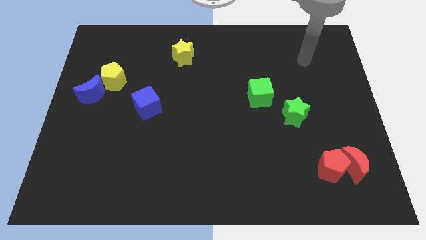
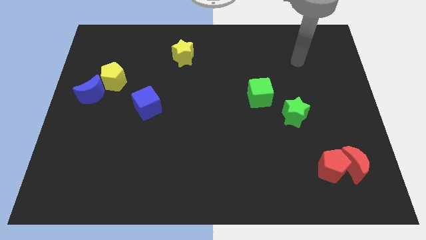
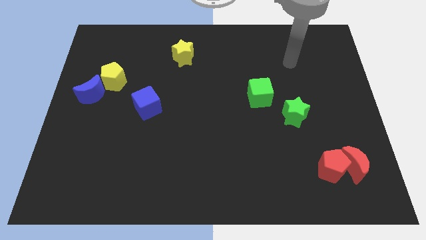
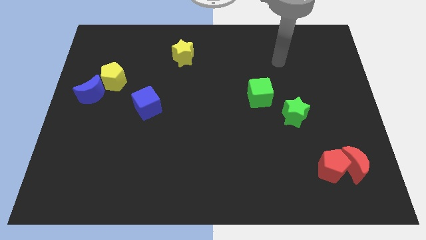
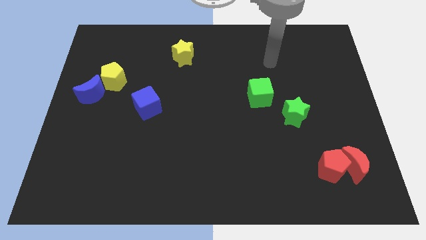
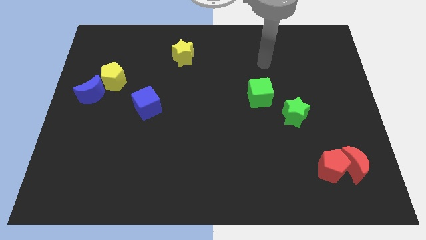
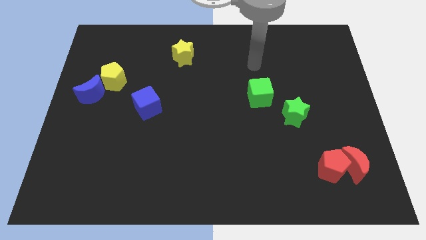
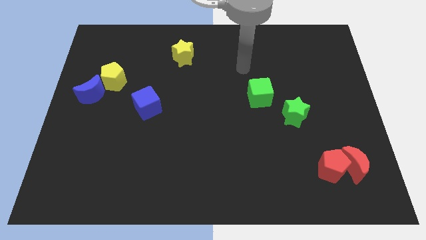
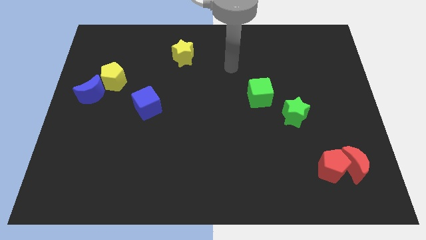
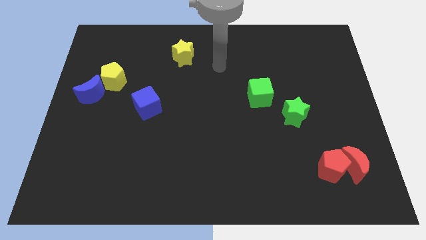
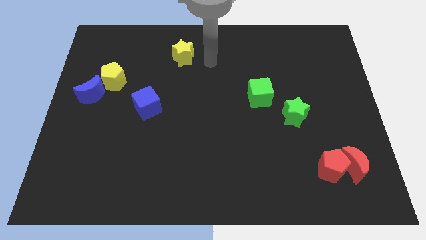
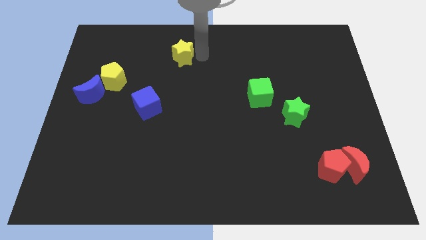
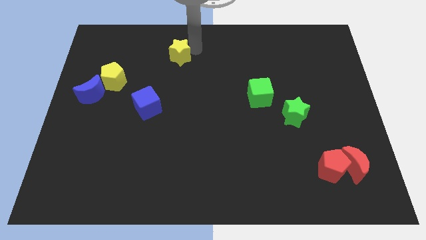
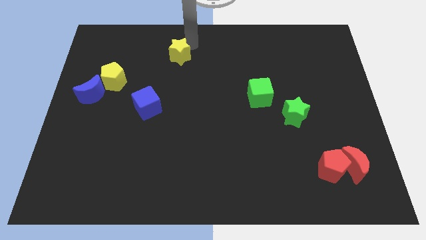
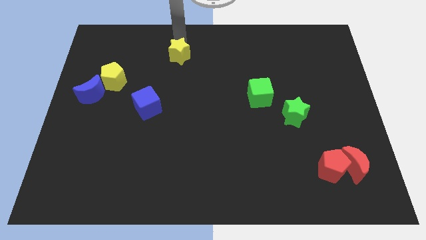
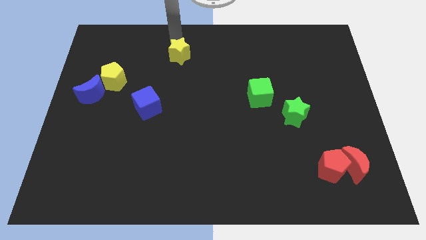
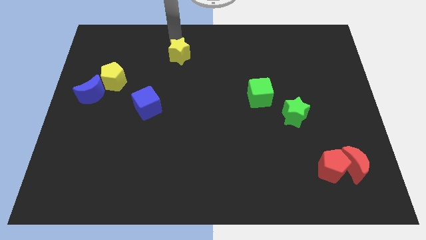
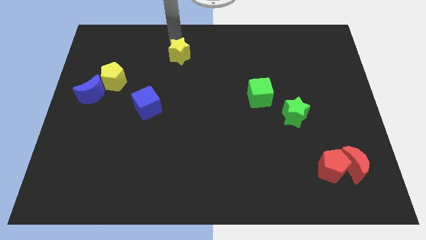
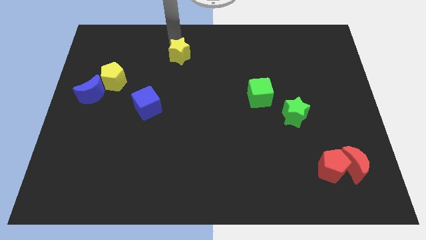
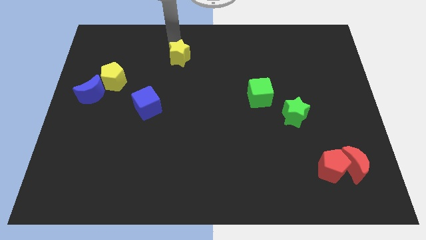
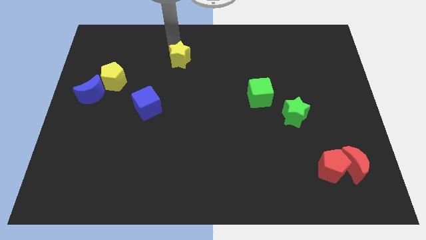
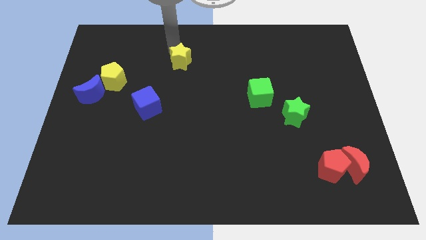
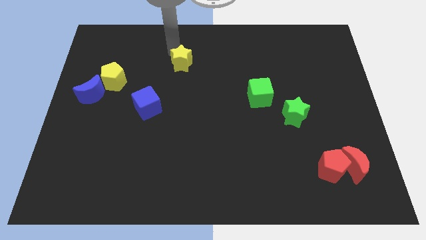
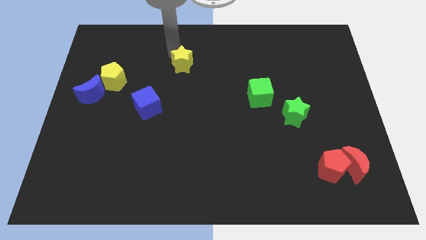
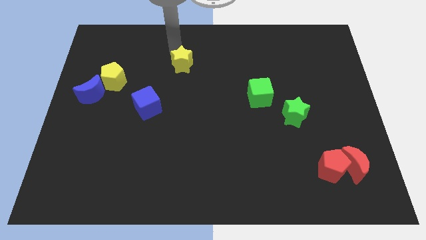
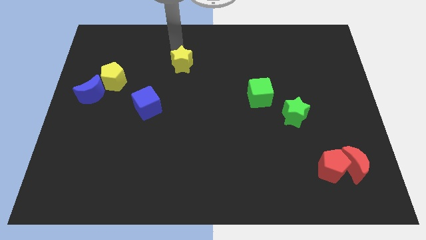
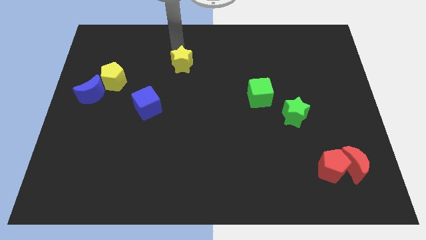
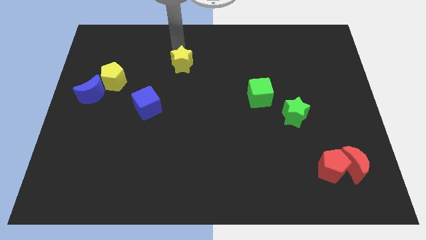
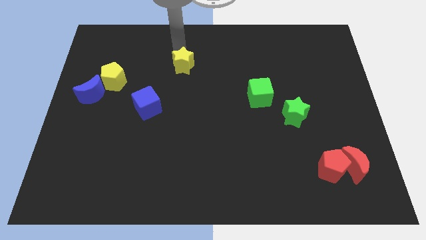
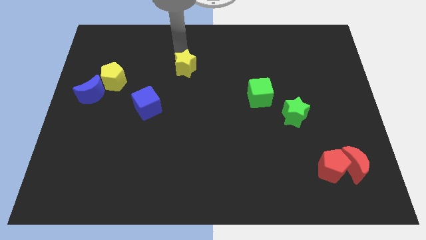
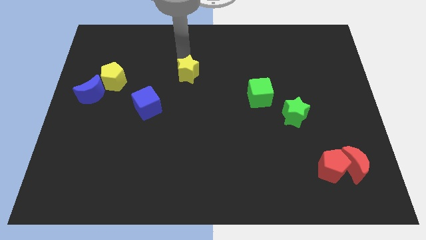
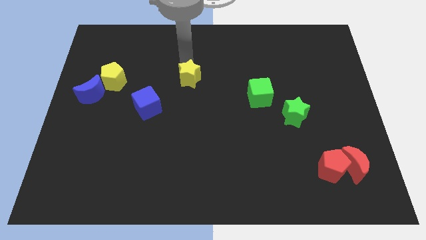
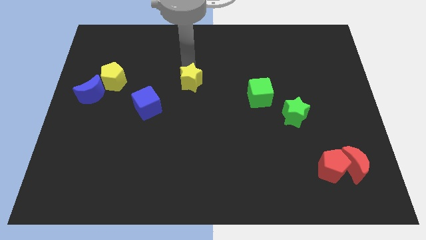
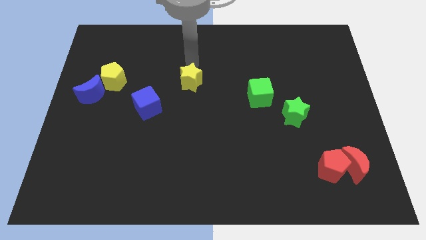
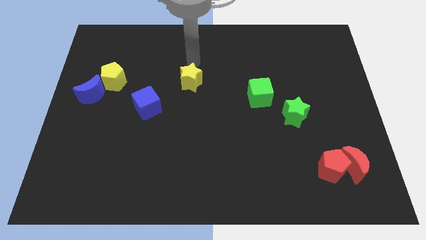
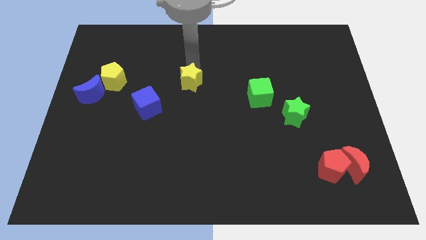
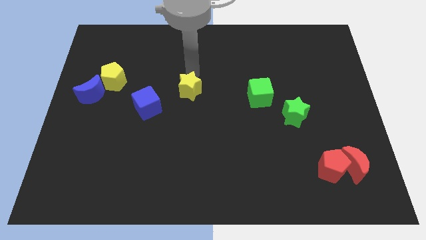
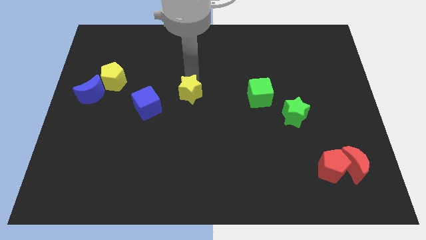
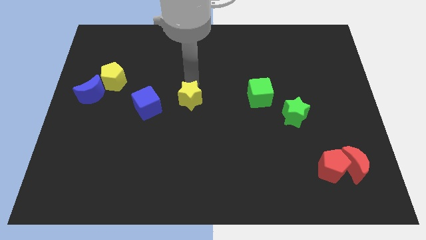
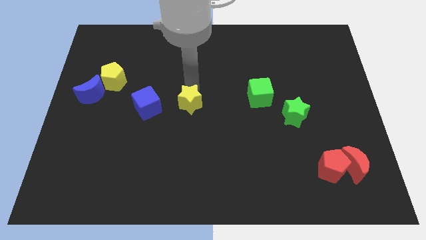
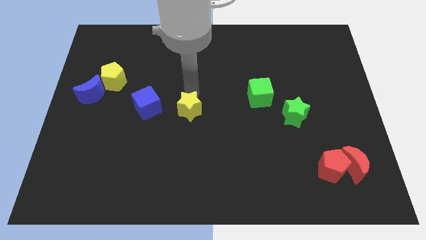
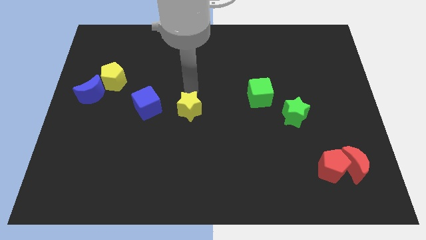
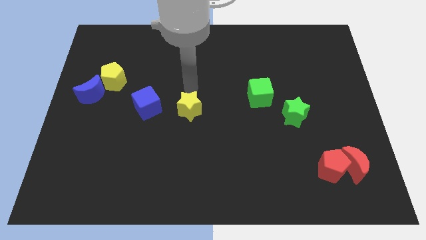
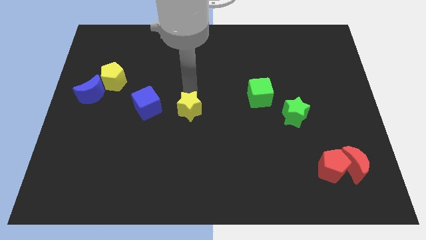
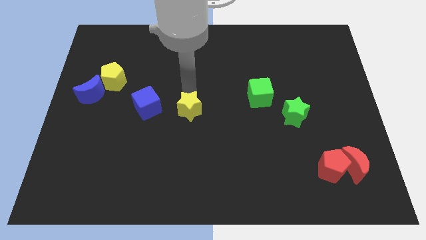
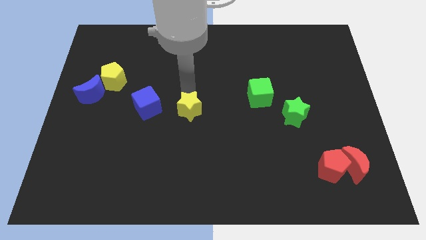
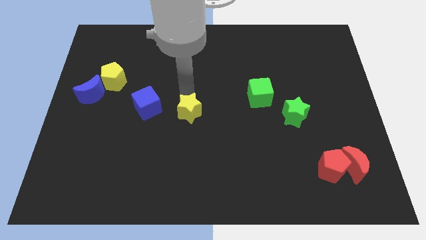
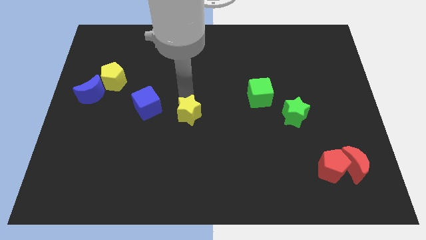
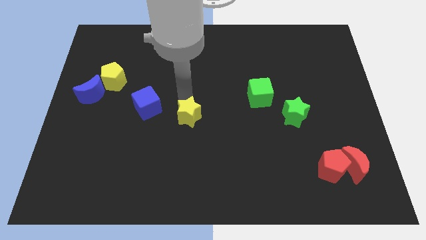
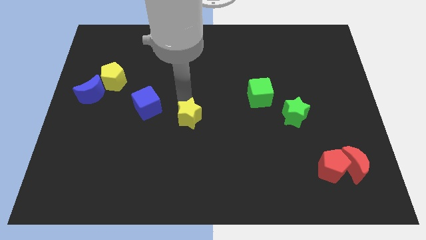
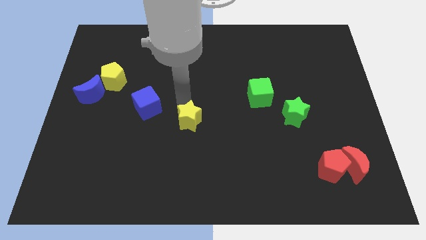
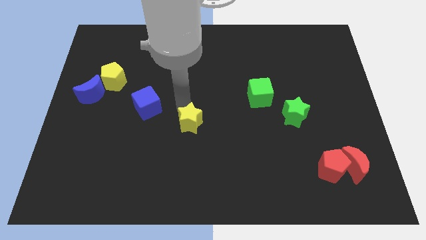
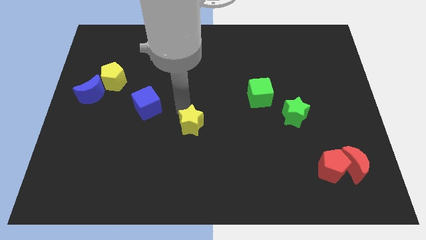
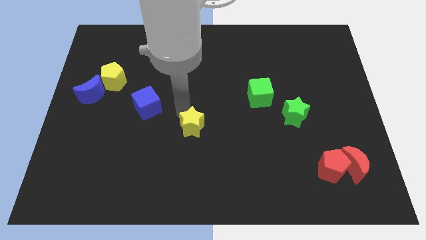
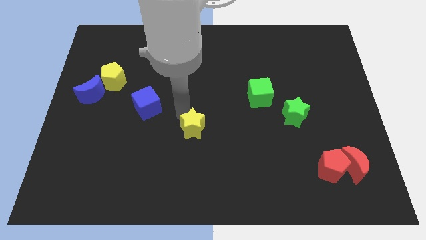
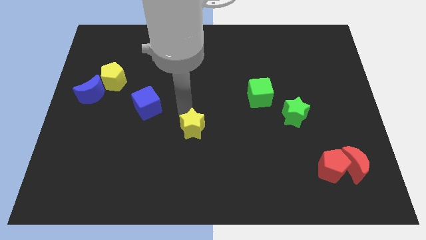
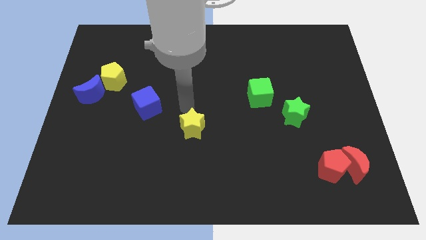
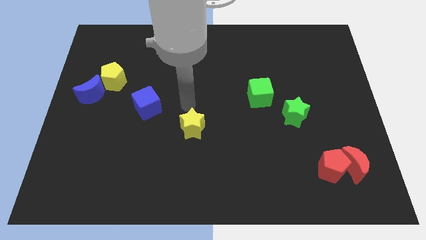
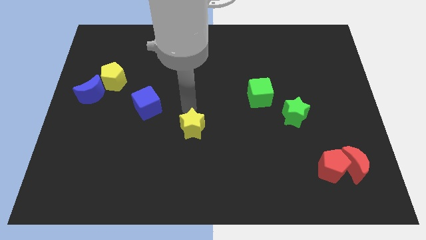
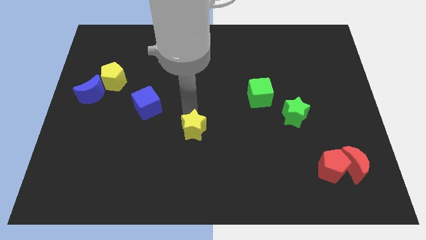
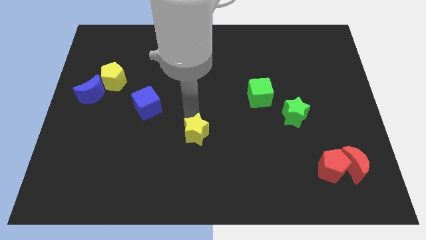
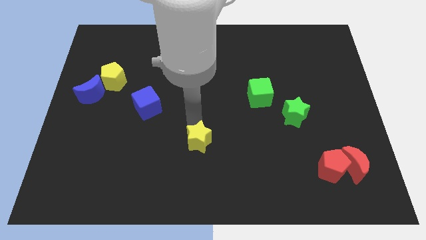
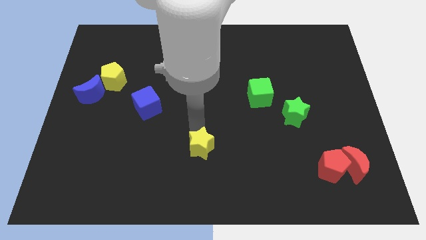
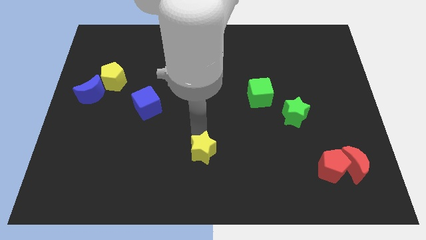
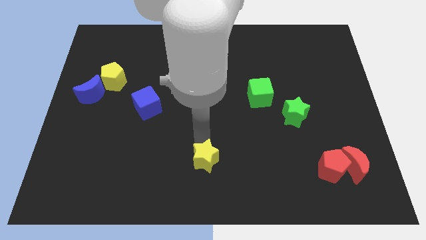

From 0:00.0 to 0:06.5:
move the yellow star to the bottom
